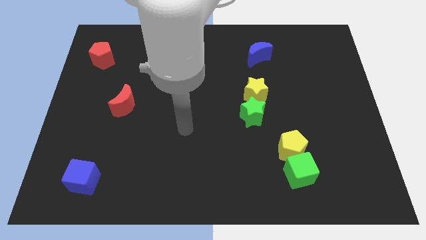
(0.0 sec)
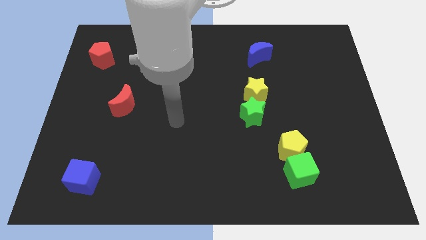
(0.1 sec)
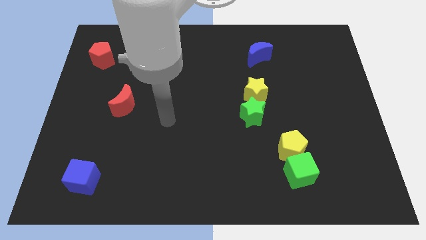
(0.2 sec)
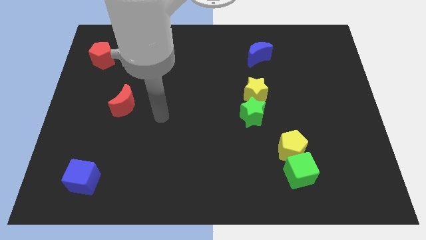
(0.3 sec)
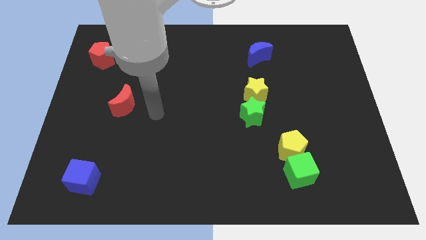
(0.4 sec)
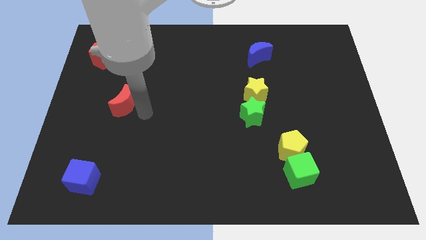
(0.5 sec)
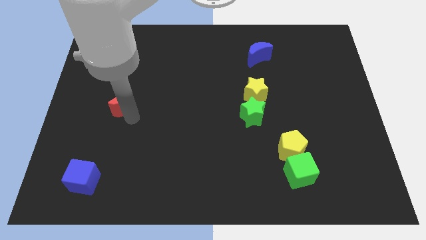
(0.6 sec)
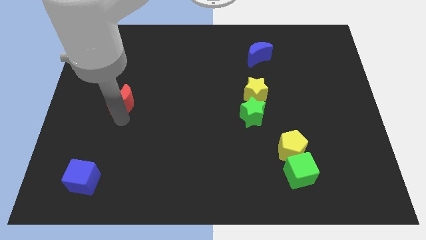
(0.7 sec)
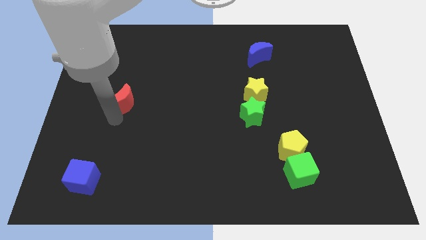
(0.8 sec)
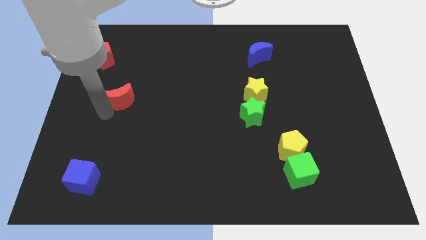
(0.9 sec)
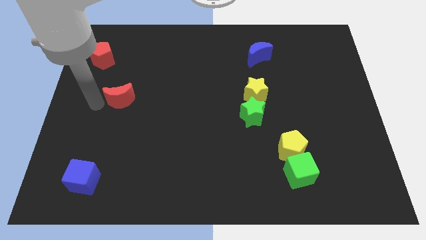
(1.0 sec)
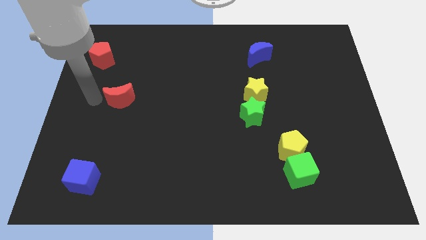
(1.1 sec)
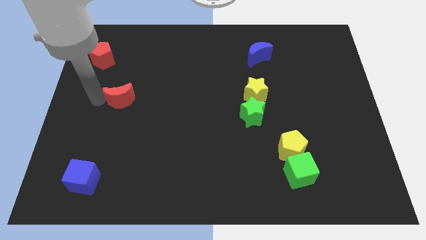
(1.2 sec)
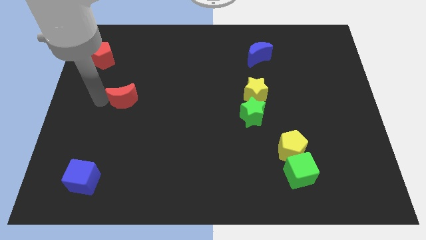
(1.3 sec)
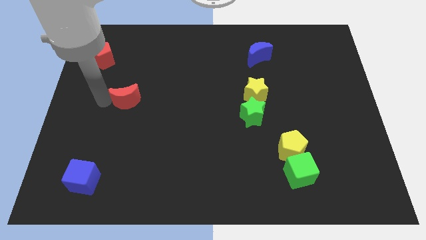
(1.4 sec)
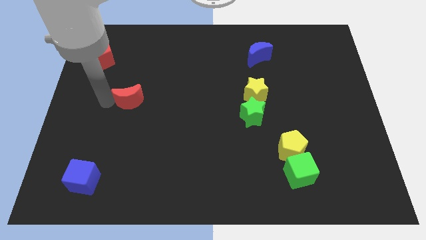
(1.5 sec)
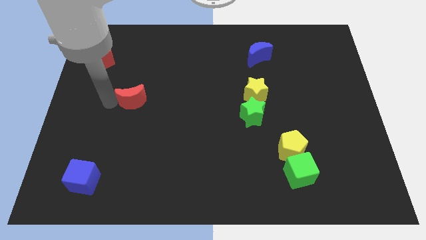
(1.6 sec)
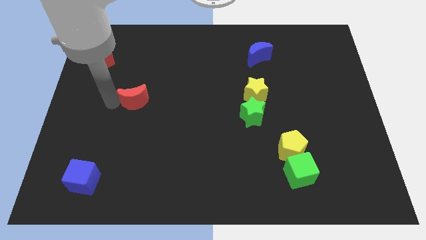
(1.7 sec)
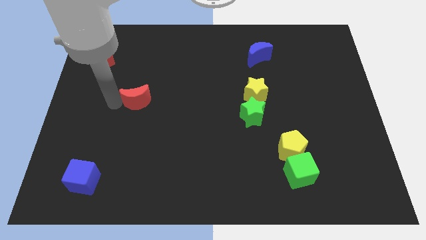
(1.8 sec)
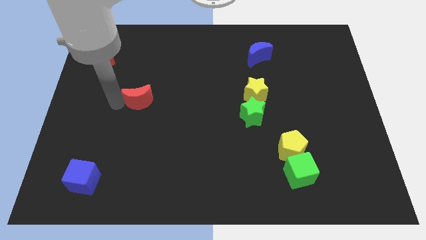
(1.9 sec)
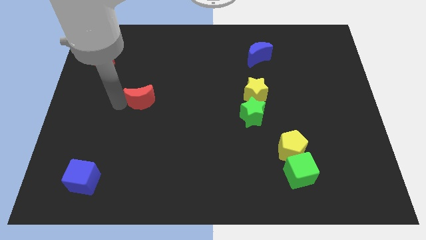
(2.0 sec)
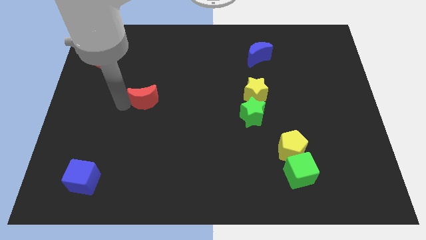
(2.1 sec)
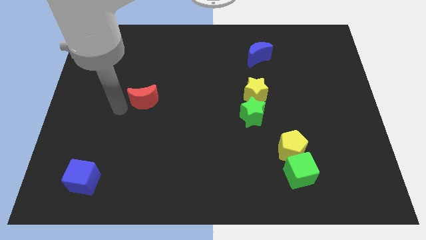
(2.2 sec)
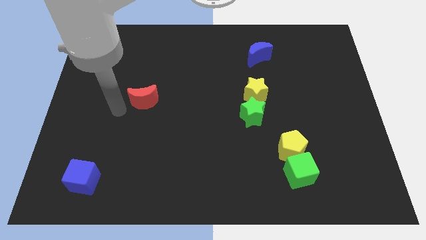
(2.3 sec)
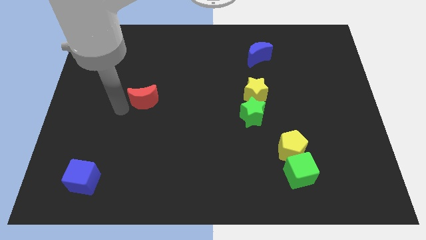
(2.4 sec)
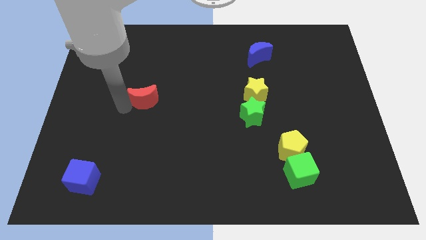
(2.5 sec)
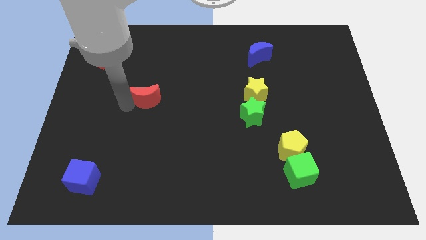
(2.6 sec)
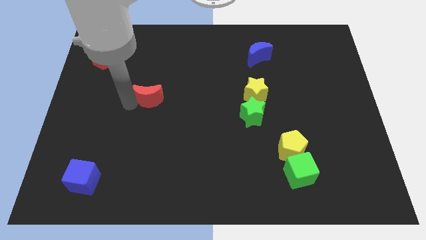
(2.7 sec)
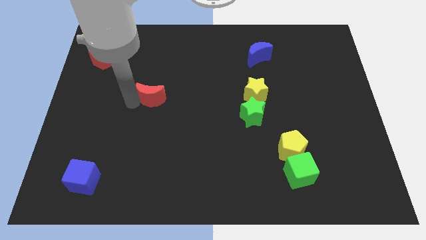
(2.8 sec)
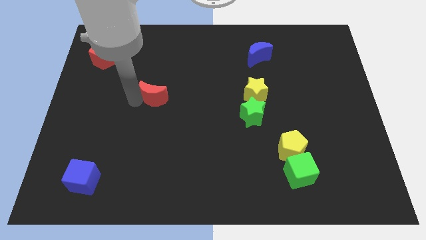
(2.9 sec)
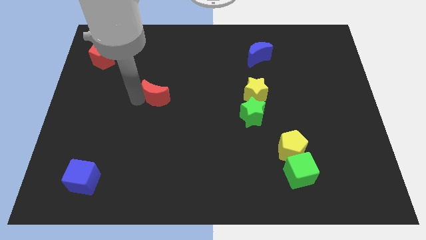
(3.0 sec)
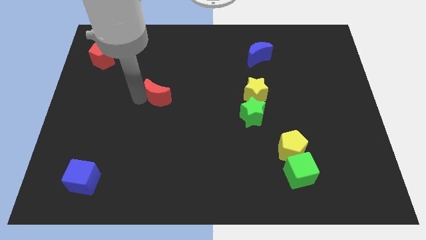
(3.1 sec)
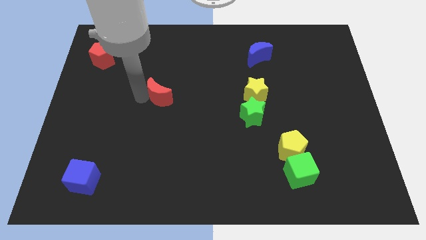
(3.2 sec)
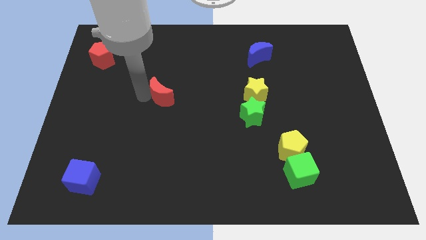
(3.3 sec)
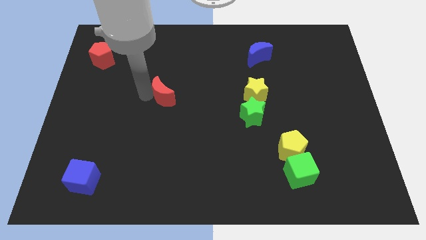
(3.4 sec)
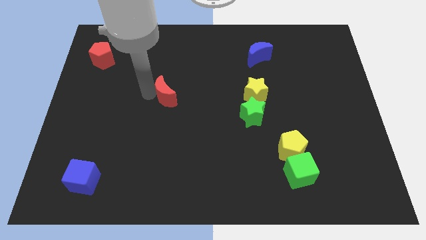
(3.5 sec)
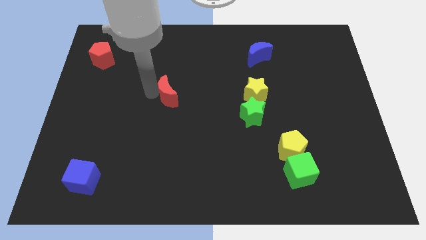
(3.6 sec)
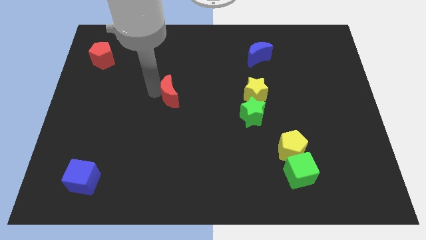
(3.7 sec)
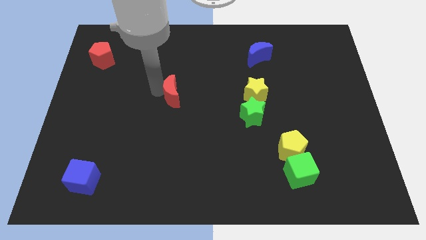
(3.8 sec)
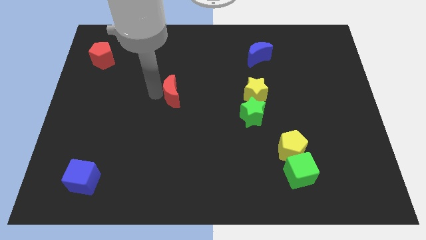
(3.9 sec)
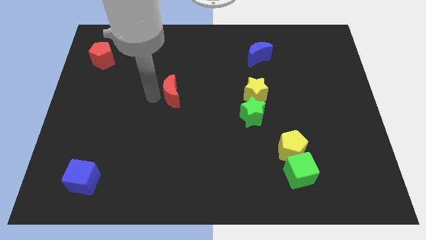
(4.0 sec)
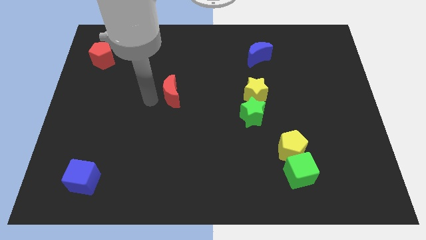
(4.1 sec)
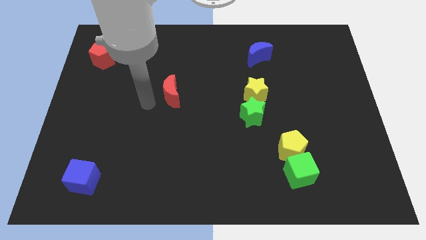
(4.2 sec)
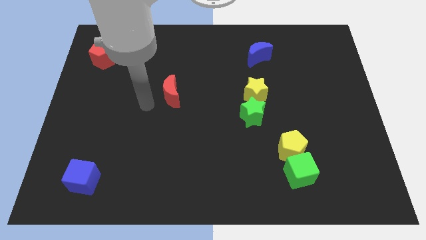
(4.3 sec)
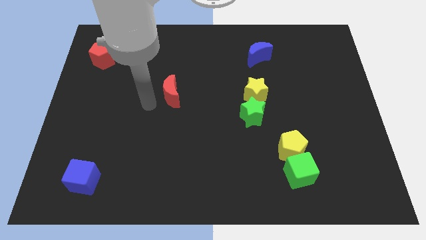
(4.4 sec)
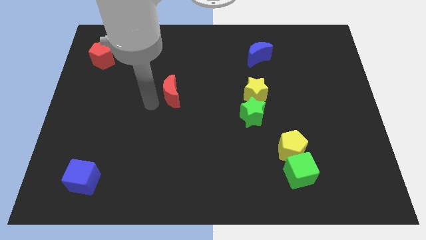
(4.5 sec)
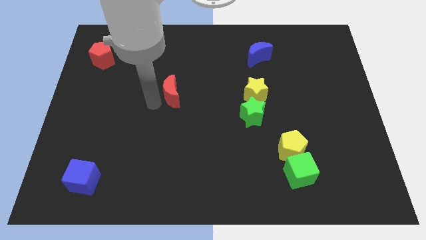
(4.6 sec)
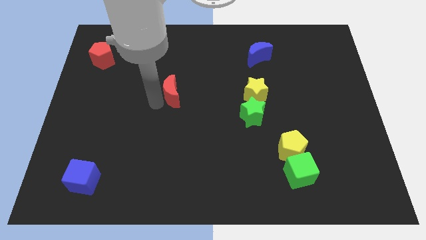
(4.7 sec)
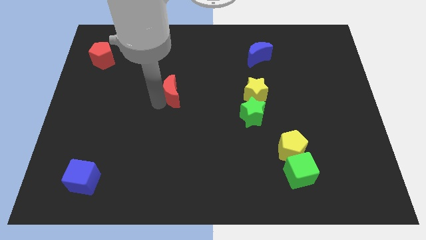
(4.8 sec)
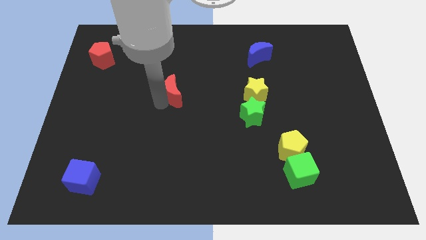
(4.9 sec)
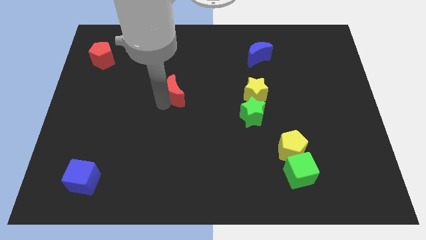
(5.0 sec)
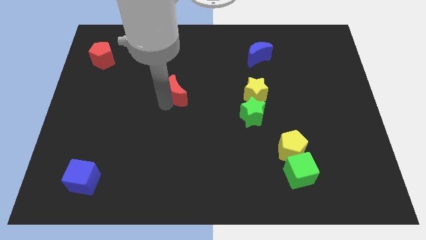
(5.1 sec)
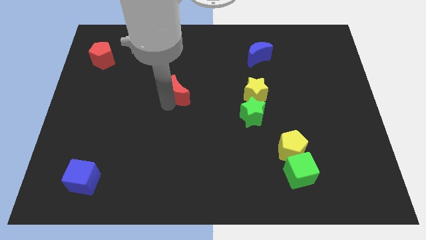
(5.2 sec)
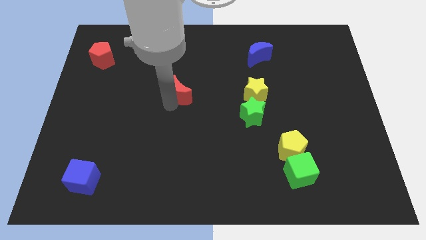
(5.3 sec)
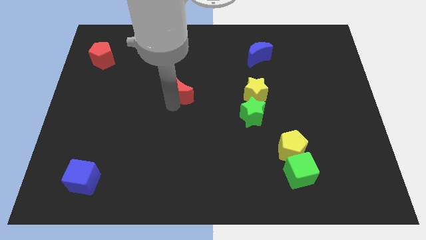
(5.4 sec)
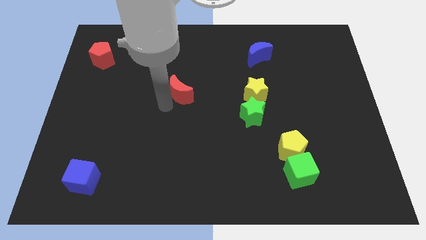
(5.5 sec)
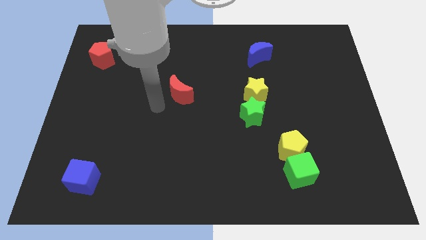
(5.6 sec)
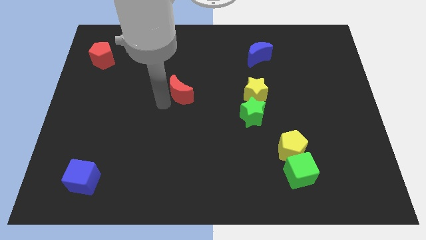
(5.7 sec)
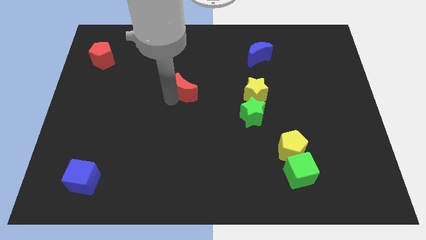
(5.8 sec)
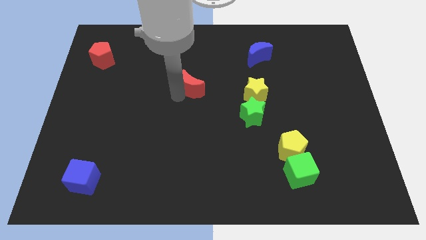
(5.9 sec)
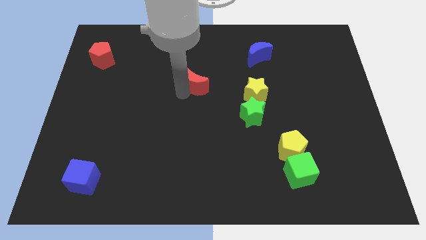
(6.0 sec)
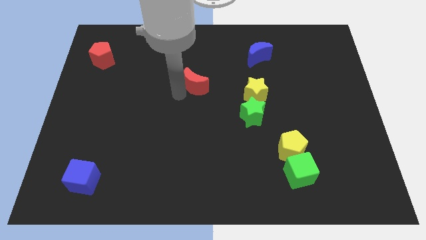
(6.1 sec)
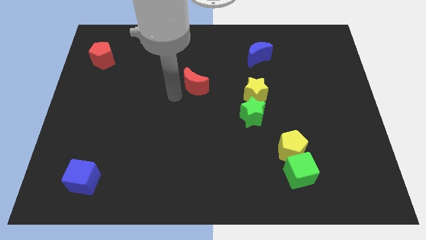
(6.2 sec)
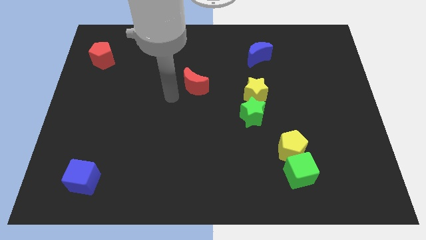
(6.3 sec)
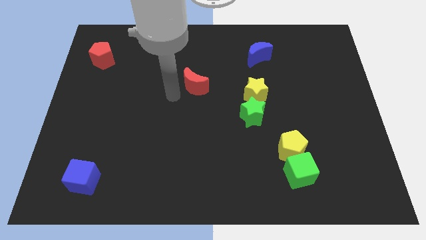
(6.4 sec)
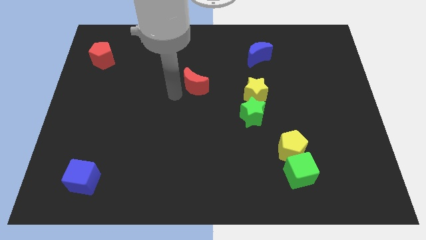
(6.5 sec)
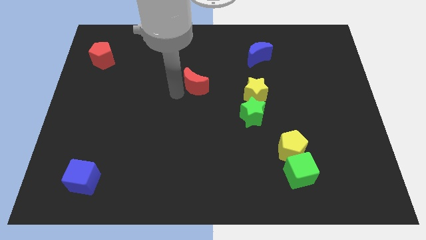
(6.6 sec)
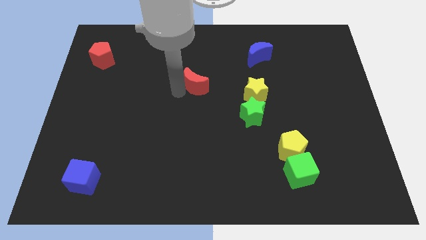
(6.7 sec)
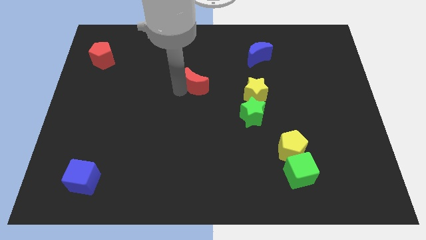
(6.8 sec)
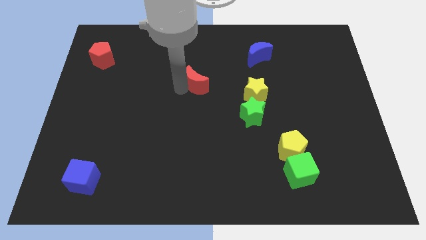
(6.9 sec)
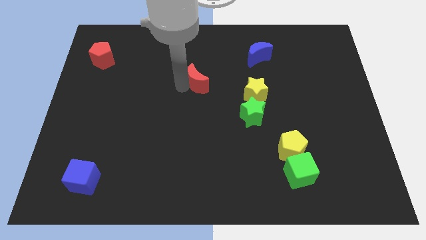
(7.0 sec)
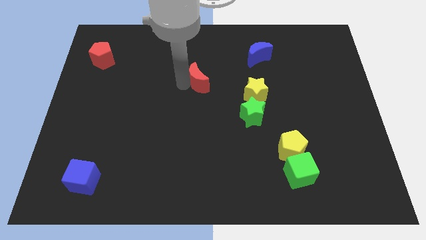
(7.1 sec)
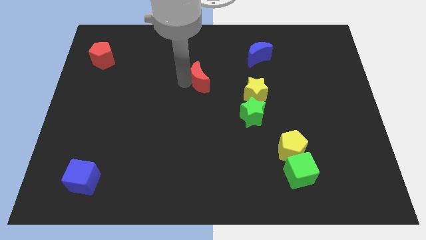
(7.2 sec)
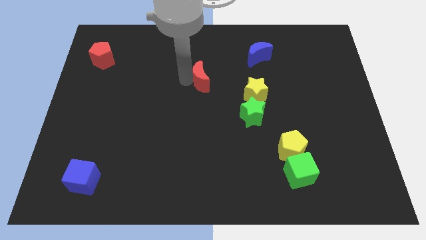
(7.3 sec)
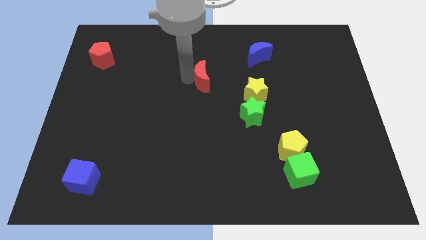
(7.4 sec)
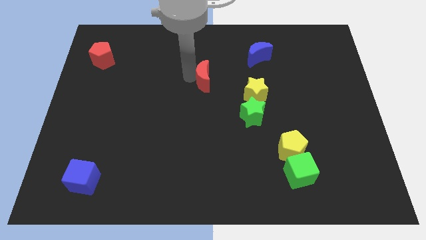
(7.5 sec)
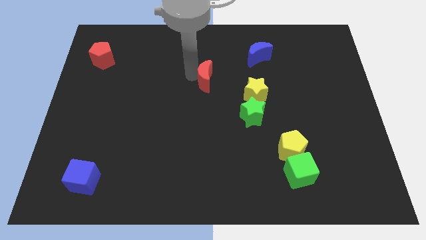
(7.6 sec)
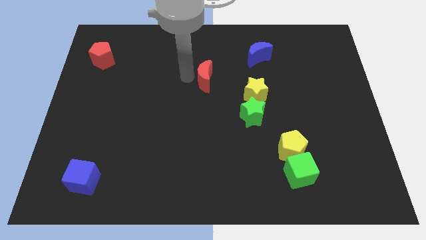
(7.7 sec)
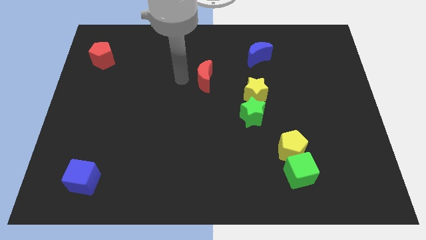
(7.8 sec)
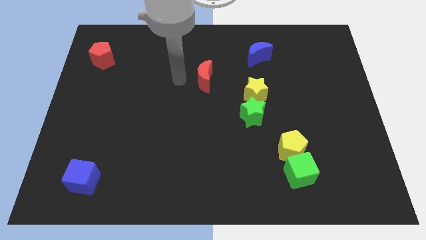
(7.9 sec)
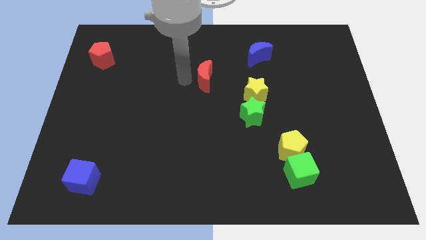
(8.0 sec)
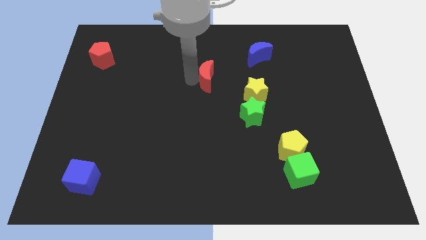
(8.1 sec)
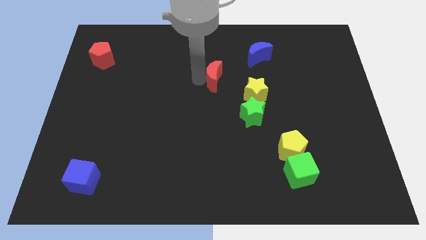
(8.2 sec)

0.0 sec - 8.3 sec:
put the red moon to the top left of the yellow star
